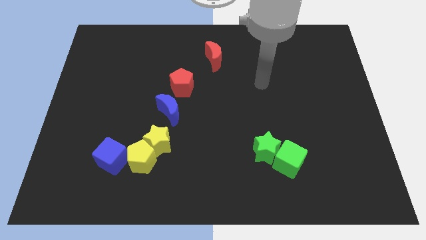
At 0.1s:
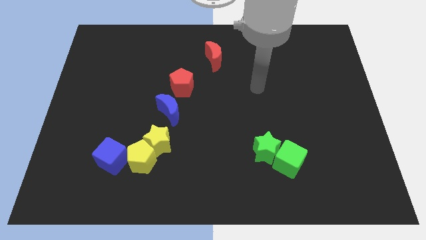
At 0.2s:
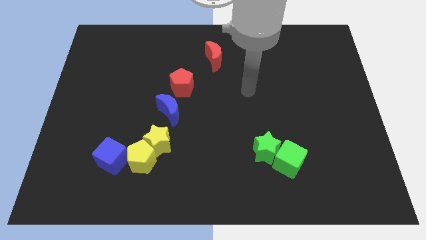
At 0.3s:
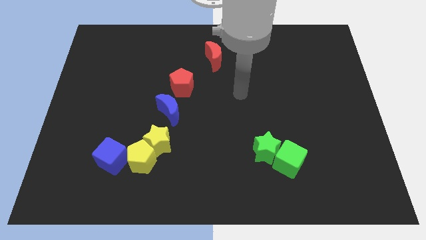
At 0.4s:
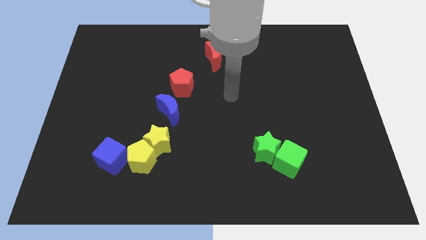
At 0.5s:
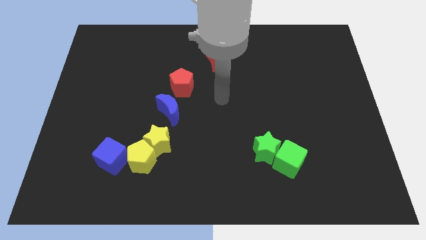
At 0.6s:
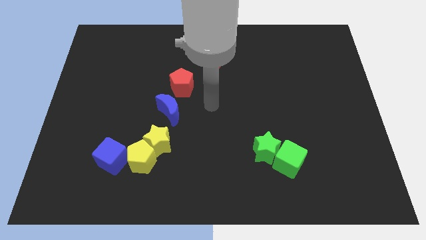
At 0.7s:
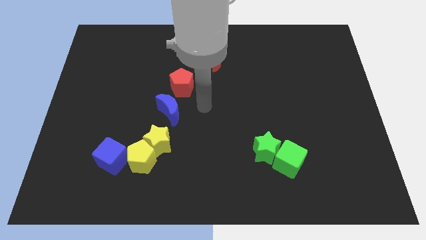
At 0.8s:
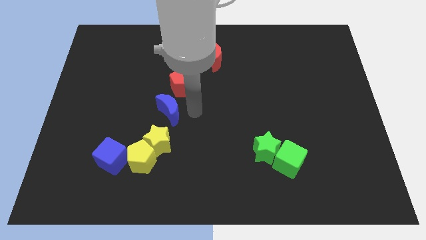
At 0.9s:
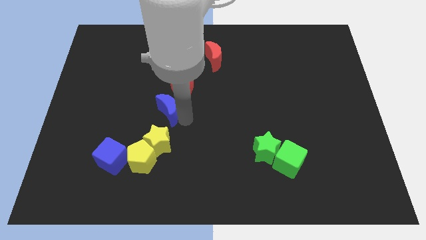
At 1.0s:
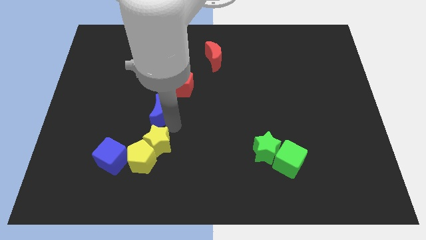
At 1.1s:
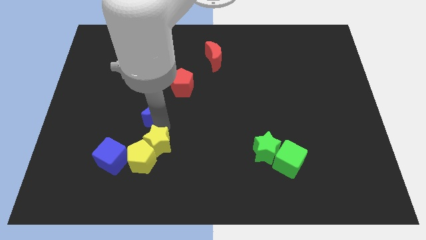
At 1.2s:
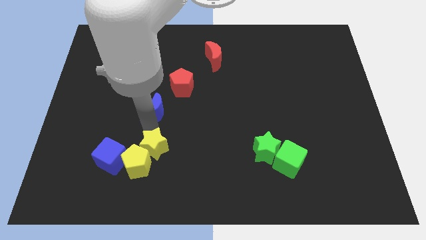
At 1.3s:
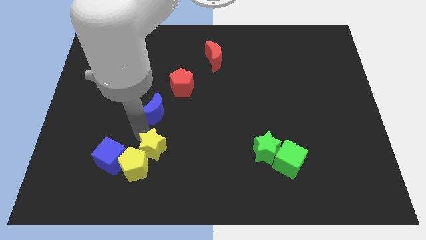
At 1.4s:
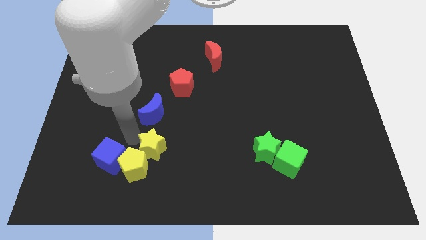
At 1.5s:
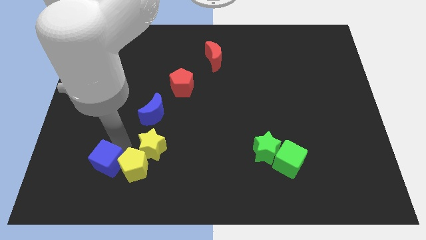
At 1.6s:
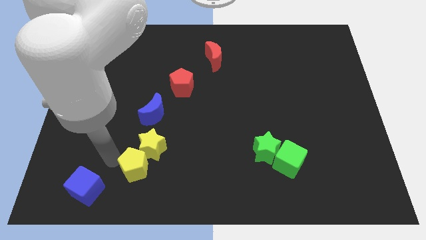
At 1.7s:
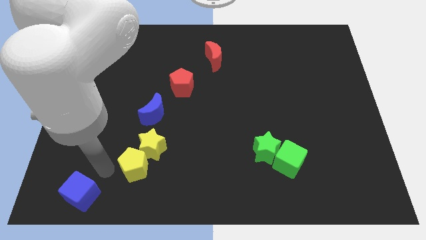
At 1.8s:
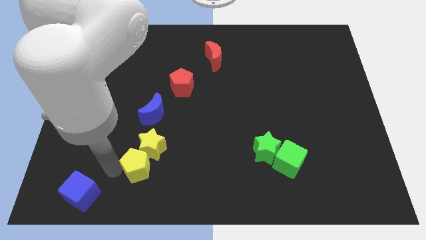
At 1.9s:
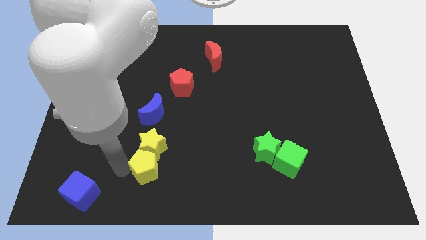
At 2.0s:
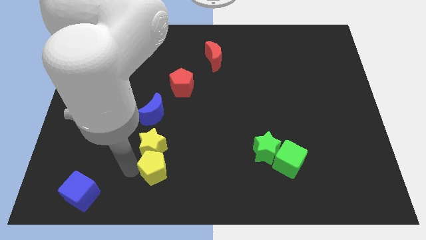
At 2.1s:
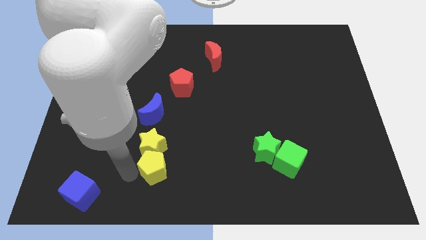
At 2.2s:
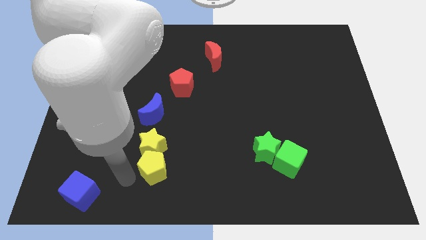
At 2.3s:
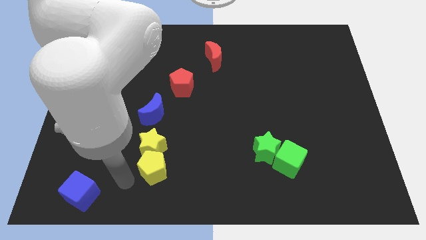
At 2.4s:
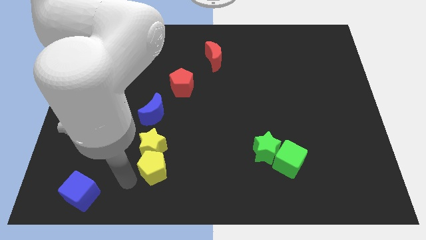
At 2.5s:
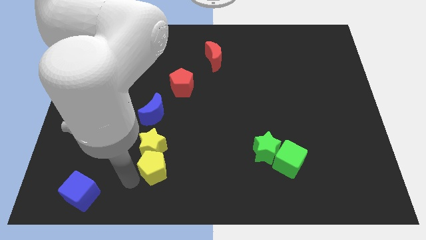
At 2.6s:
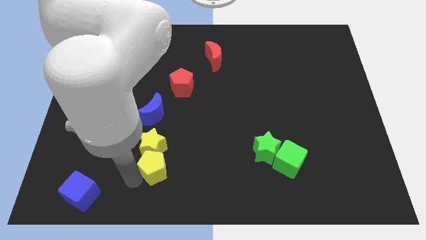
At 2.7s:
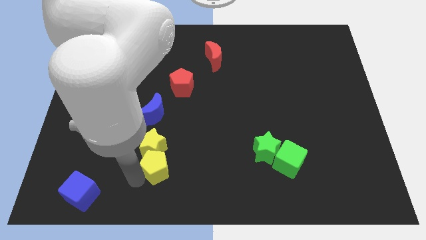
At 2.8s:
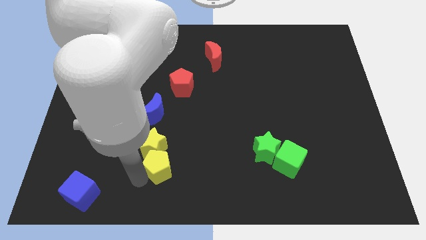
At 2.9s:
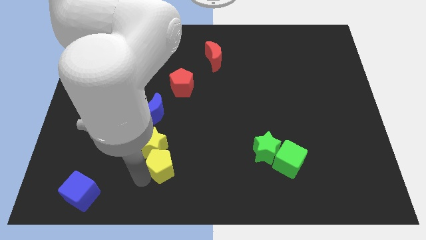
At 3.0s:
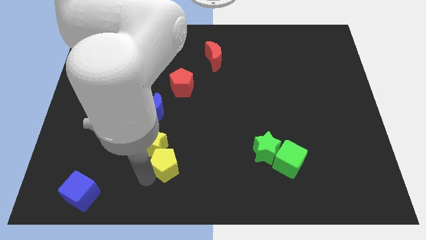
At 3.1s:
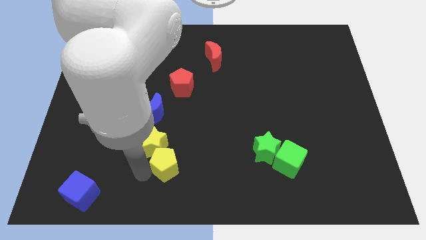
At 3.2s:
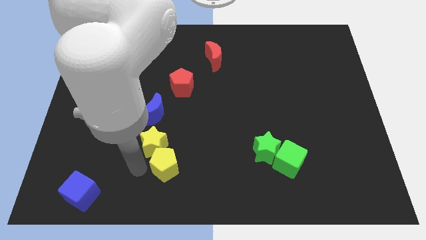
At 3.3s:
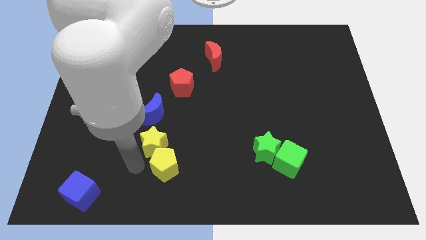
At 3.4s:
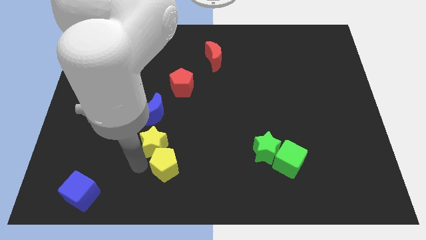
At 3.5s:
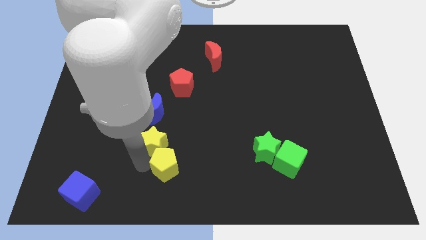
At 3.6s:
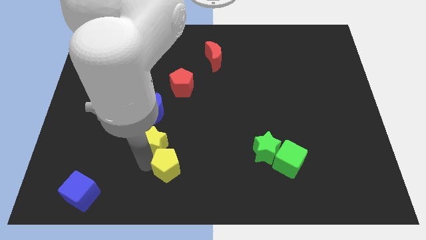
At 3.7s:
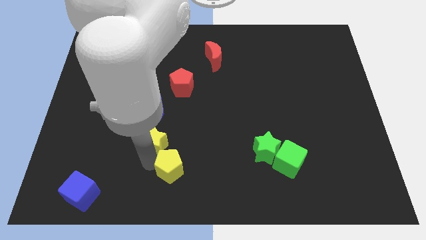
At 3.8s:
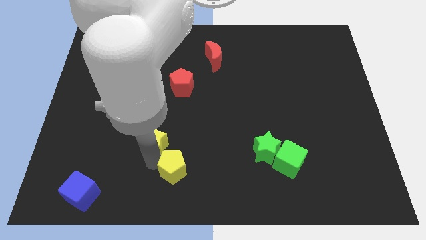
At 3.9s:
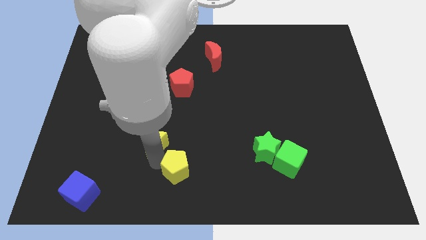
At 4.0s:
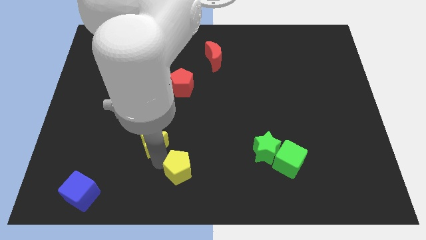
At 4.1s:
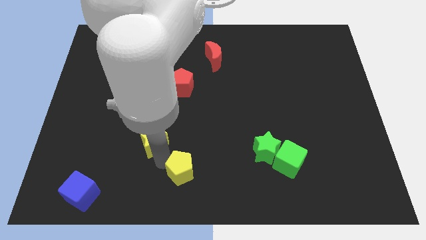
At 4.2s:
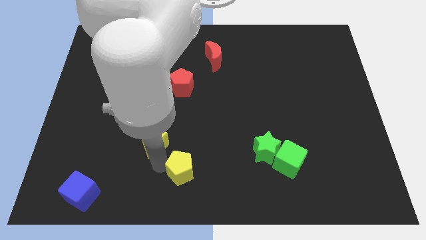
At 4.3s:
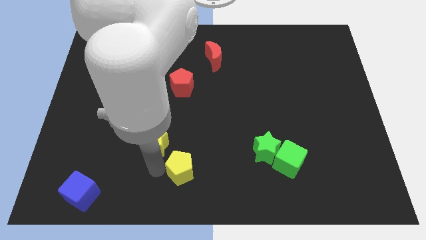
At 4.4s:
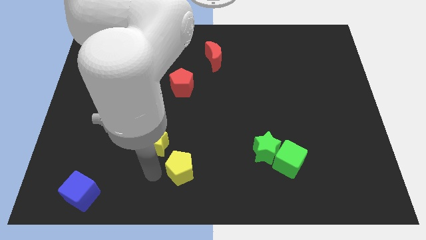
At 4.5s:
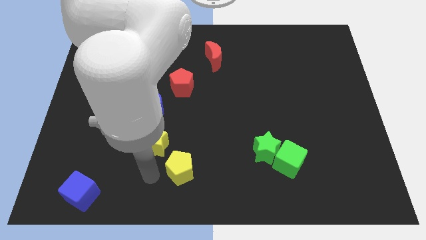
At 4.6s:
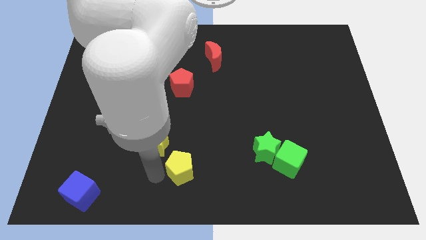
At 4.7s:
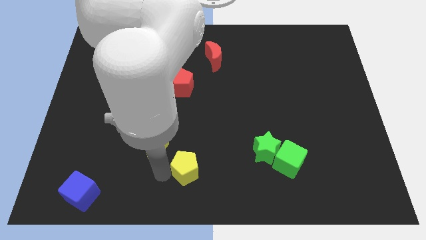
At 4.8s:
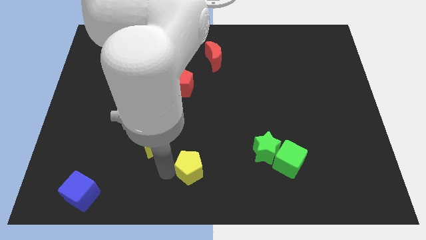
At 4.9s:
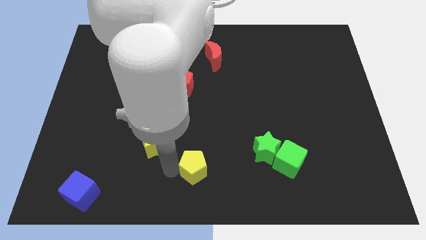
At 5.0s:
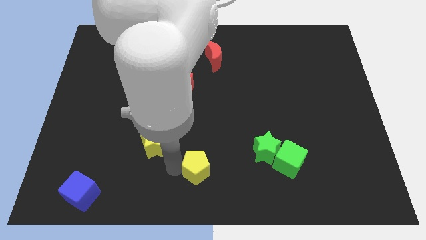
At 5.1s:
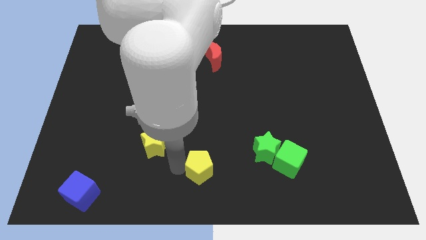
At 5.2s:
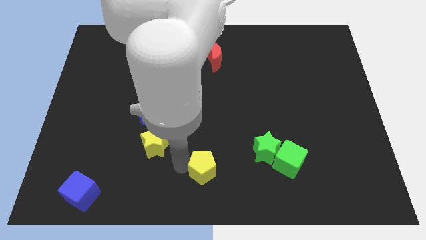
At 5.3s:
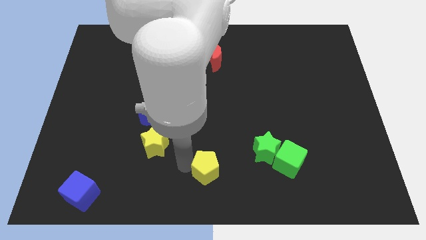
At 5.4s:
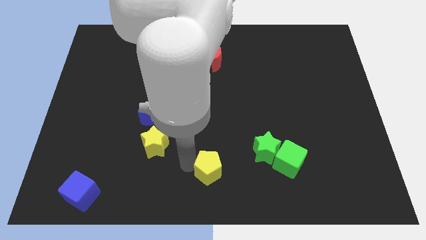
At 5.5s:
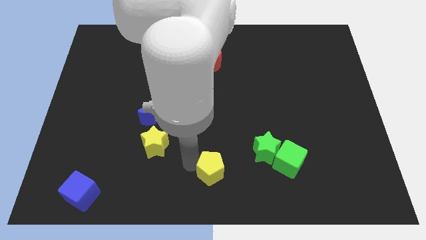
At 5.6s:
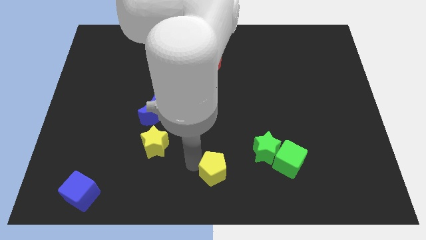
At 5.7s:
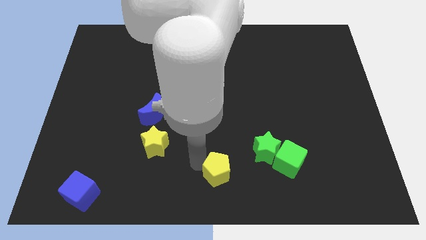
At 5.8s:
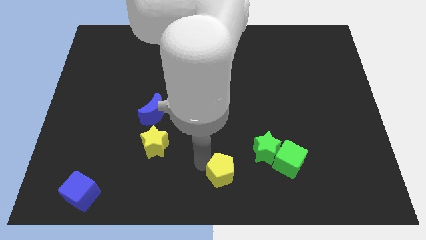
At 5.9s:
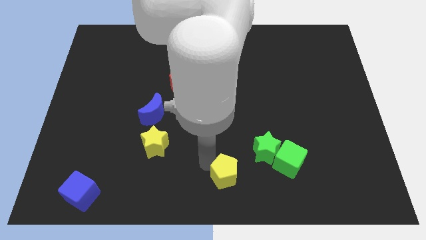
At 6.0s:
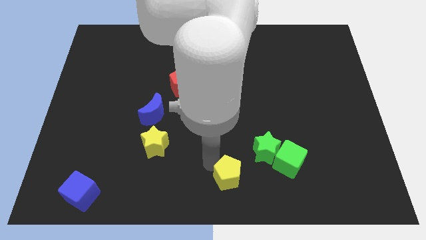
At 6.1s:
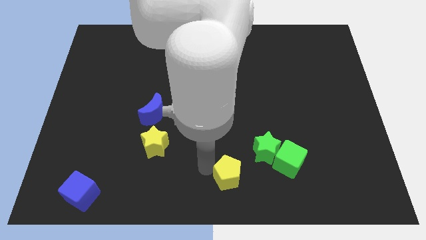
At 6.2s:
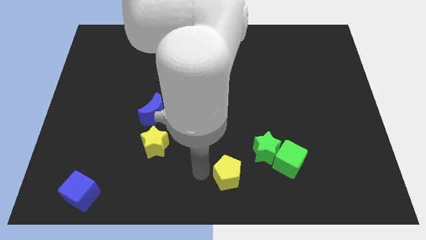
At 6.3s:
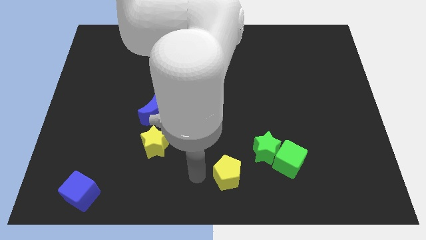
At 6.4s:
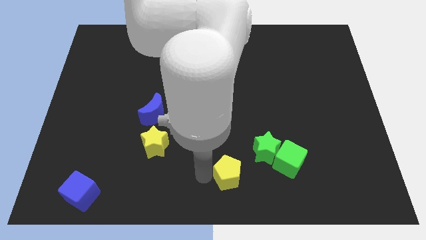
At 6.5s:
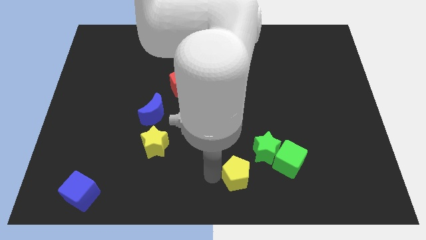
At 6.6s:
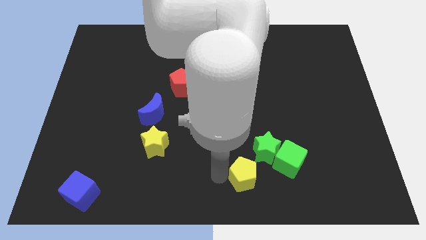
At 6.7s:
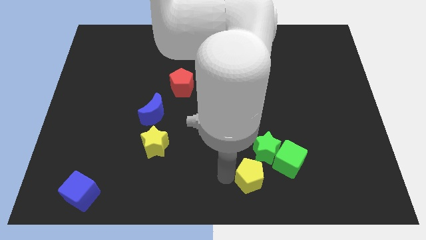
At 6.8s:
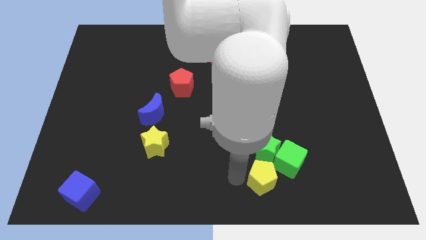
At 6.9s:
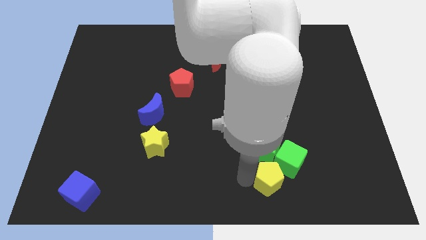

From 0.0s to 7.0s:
move the yellow pentagon to the bottom right side of the green star

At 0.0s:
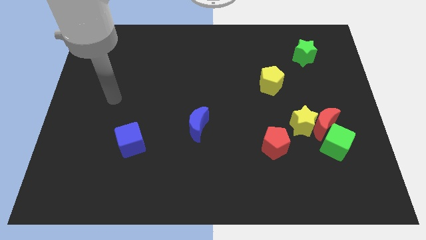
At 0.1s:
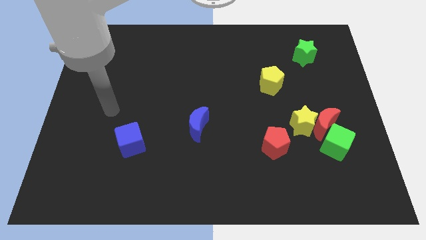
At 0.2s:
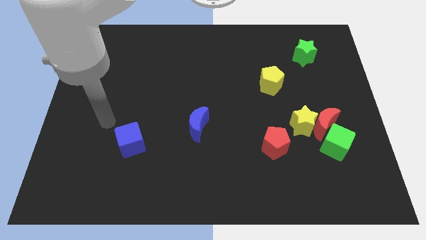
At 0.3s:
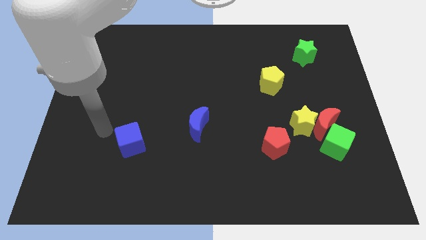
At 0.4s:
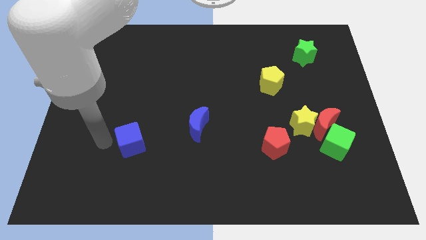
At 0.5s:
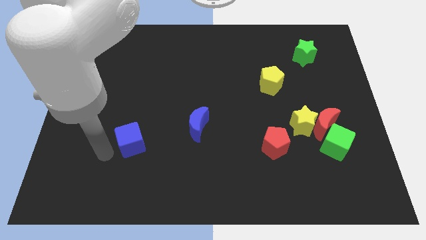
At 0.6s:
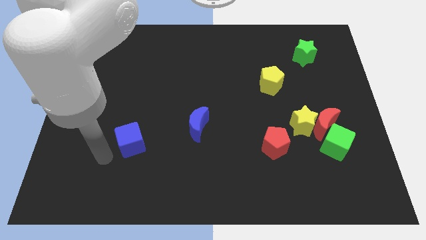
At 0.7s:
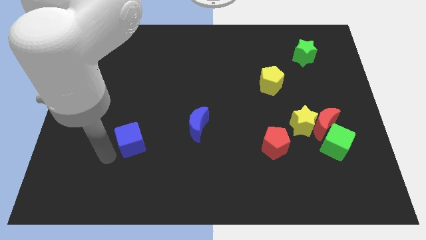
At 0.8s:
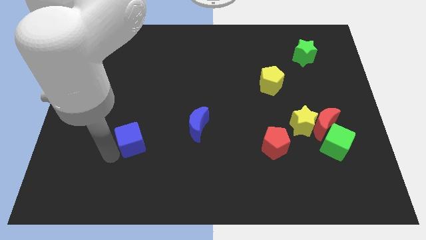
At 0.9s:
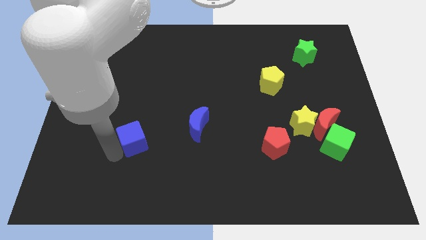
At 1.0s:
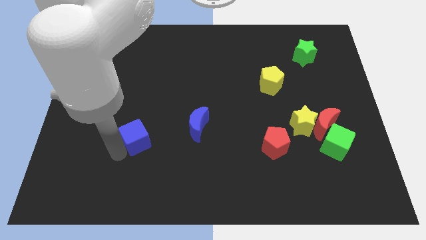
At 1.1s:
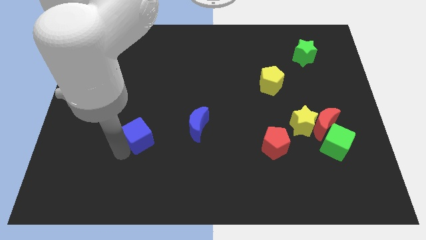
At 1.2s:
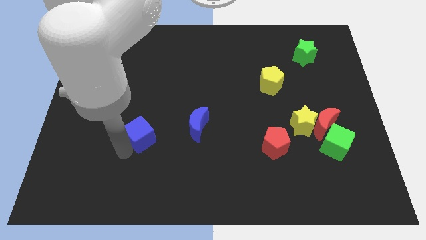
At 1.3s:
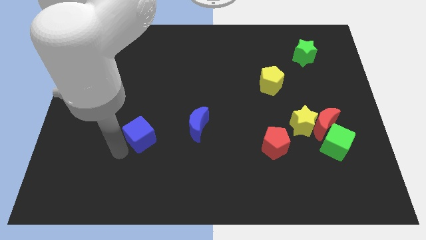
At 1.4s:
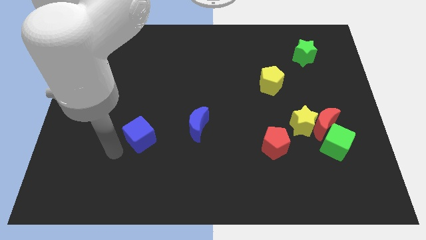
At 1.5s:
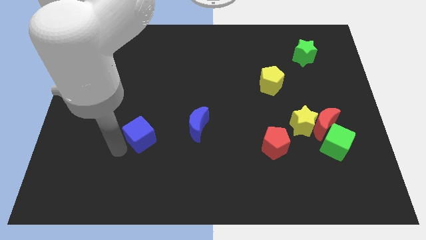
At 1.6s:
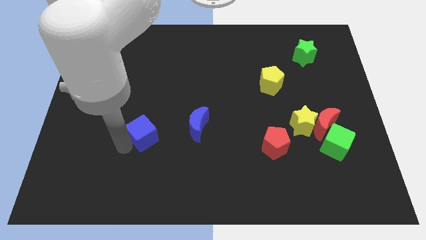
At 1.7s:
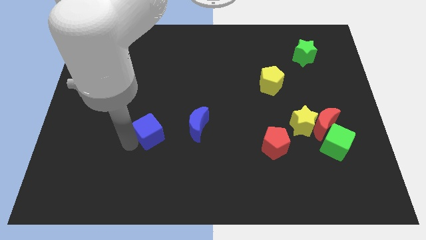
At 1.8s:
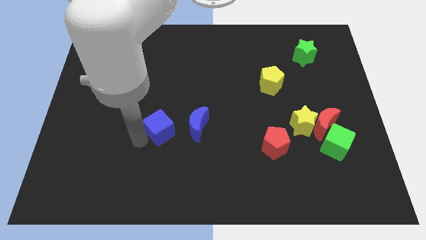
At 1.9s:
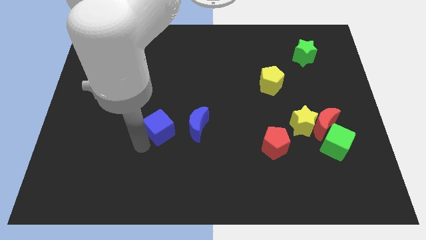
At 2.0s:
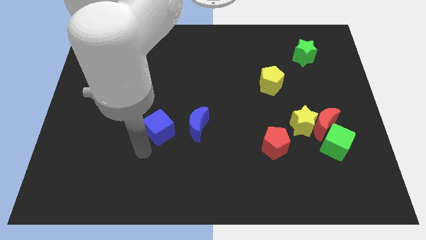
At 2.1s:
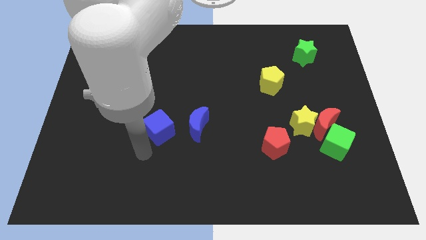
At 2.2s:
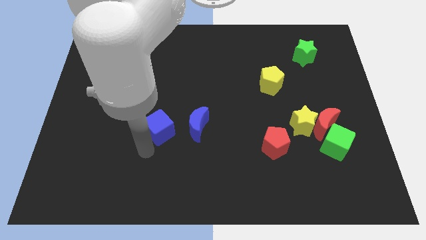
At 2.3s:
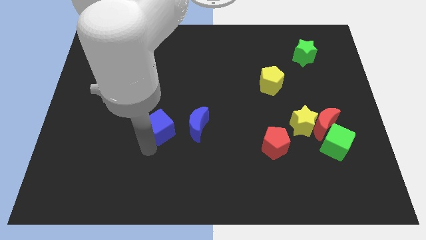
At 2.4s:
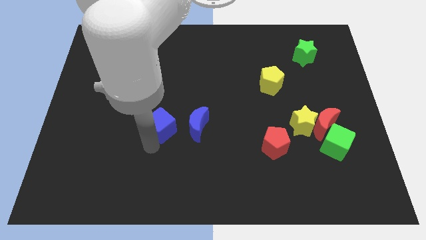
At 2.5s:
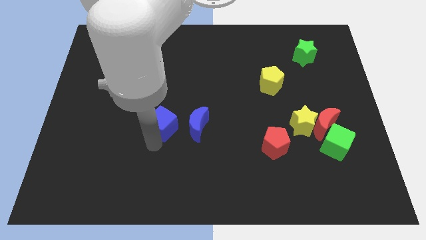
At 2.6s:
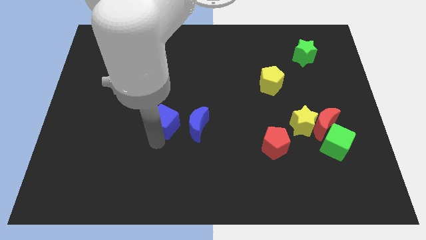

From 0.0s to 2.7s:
push the blue cube to the top left of the blue moon
